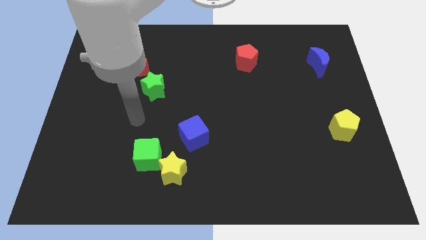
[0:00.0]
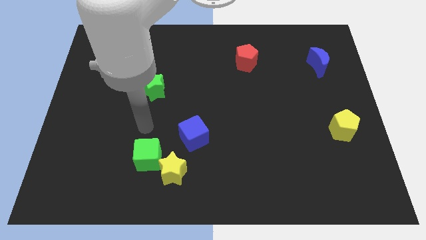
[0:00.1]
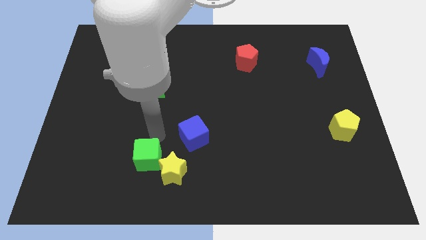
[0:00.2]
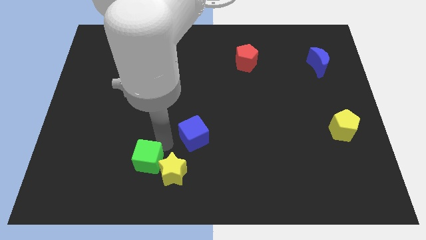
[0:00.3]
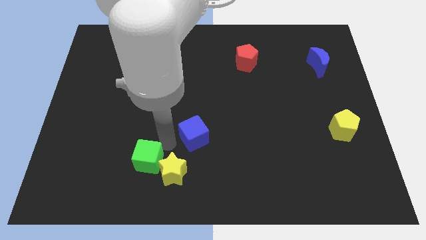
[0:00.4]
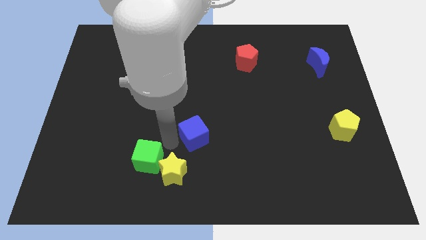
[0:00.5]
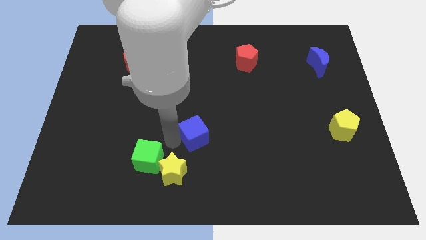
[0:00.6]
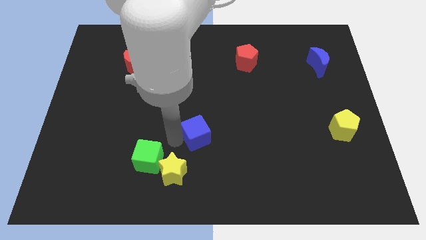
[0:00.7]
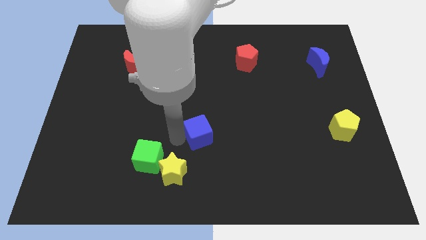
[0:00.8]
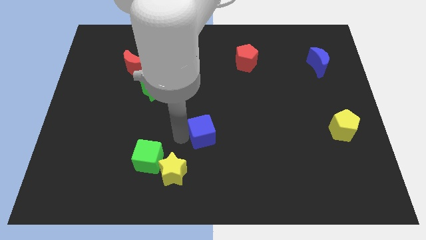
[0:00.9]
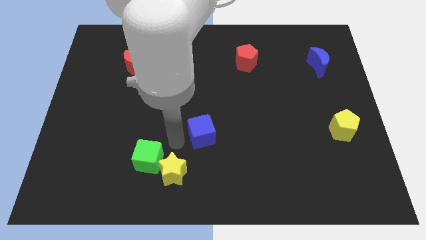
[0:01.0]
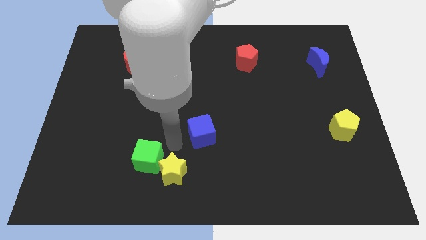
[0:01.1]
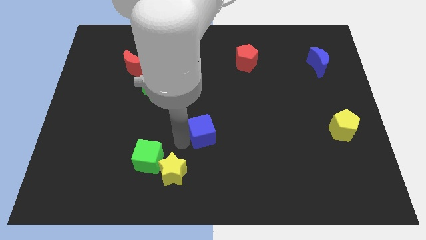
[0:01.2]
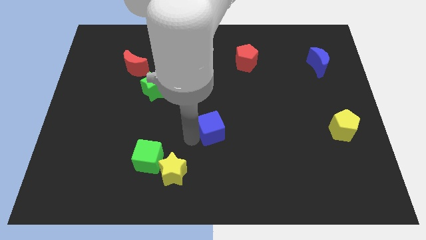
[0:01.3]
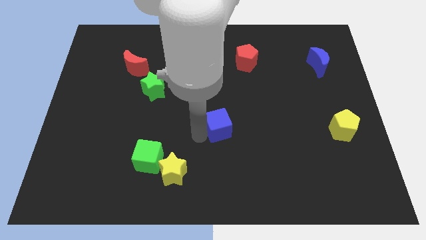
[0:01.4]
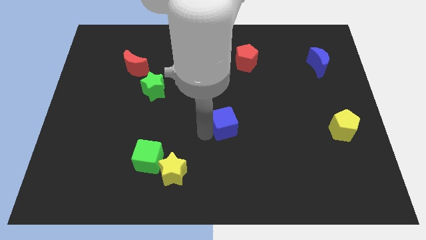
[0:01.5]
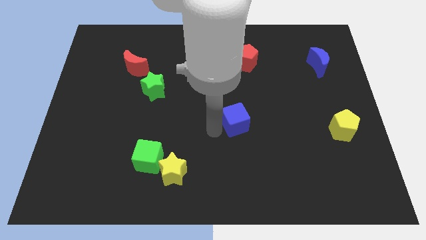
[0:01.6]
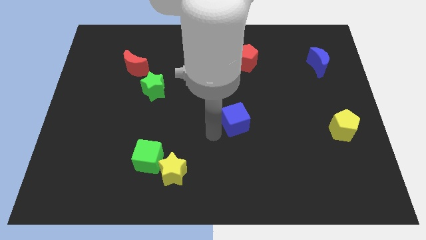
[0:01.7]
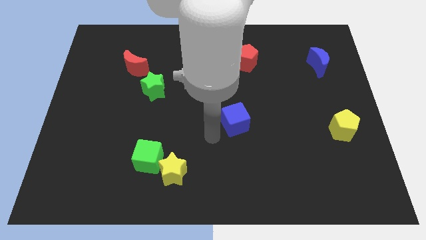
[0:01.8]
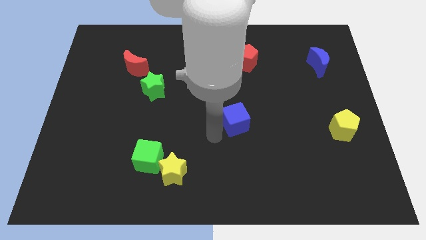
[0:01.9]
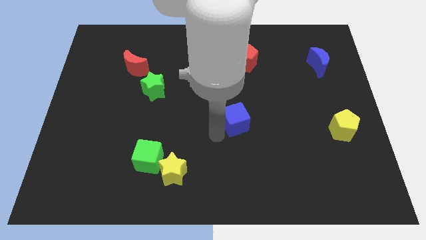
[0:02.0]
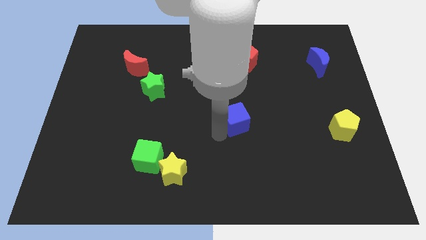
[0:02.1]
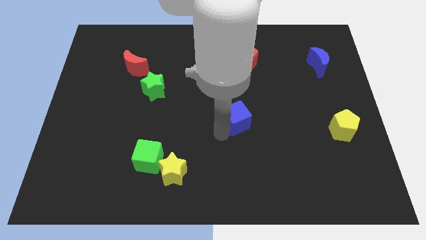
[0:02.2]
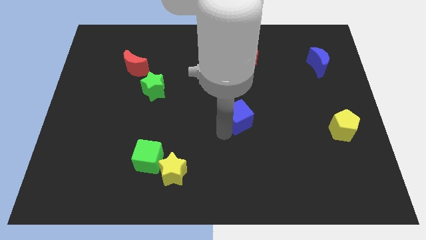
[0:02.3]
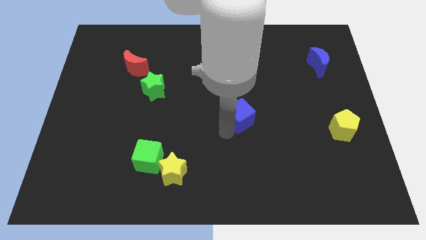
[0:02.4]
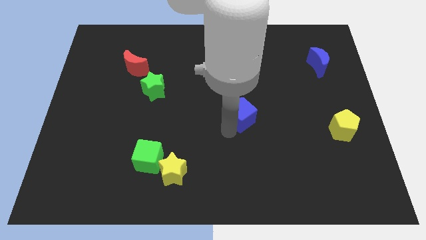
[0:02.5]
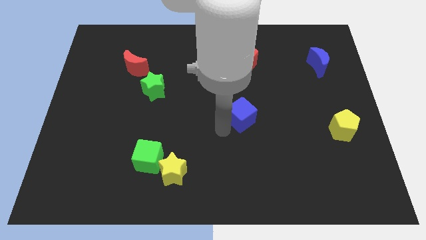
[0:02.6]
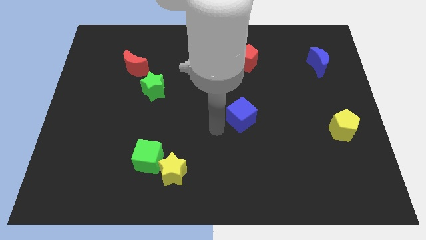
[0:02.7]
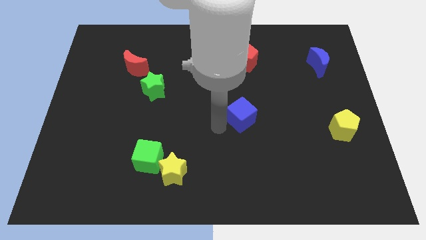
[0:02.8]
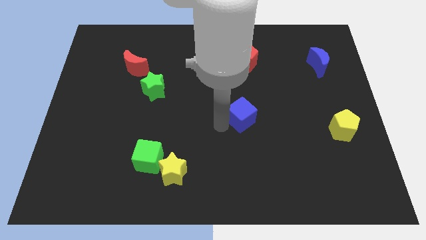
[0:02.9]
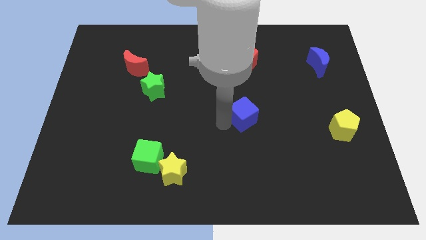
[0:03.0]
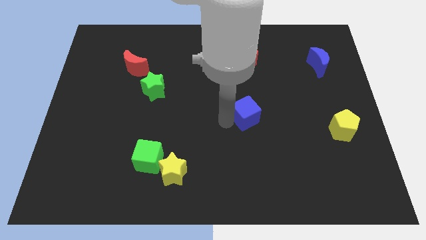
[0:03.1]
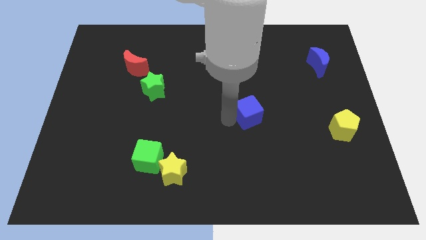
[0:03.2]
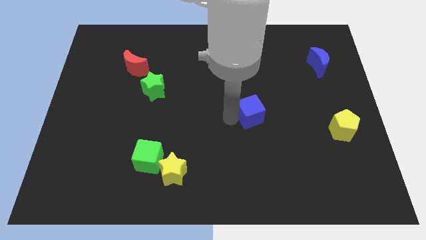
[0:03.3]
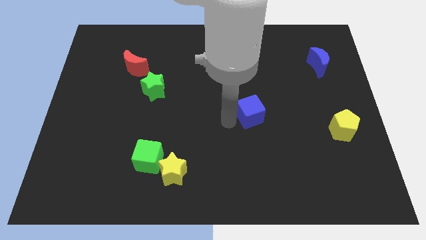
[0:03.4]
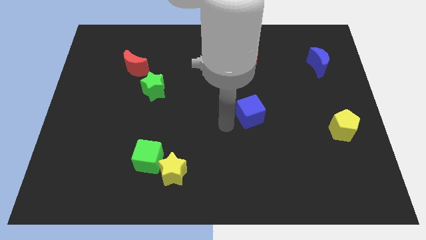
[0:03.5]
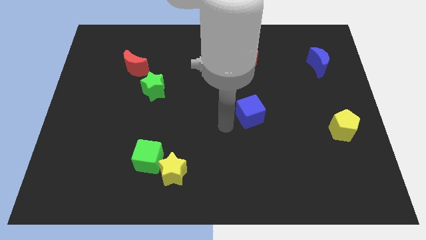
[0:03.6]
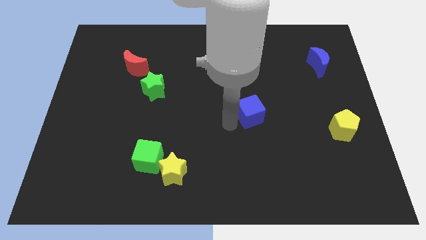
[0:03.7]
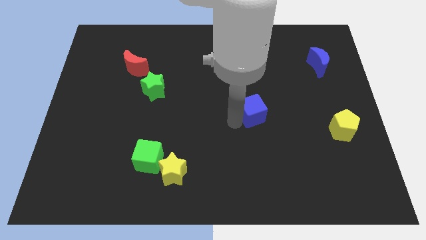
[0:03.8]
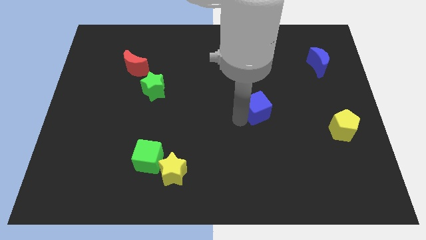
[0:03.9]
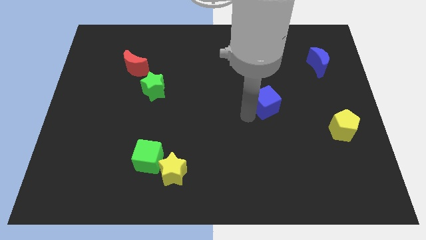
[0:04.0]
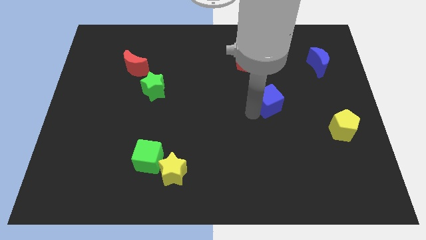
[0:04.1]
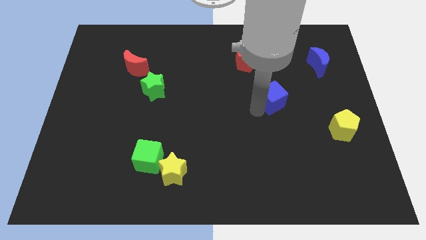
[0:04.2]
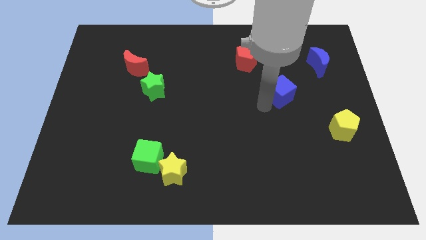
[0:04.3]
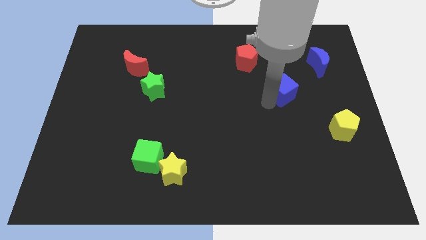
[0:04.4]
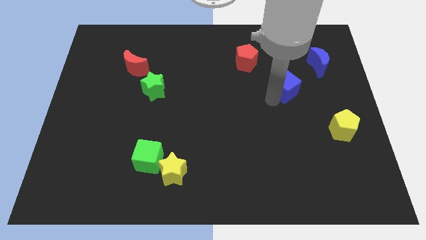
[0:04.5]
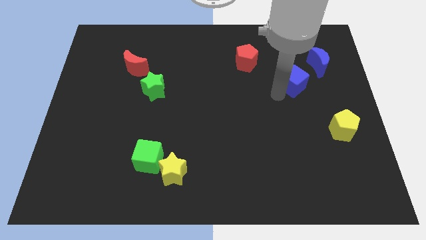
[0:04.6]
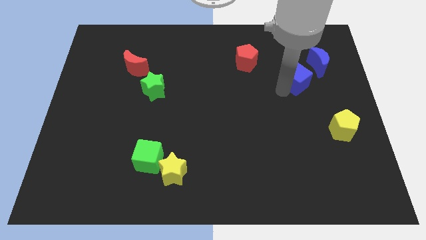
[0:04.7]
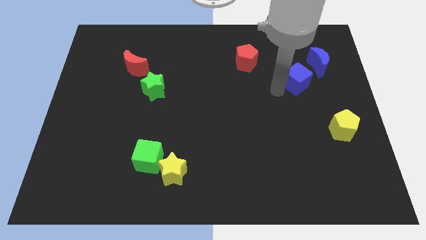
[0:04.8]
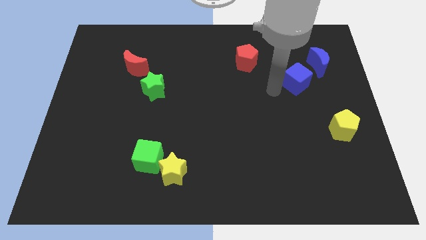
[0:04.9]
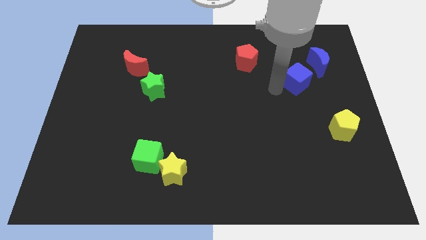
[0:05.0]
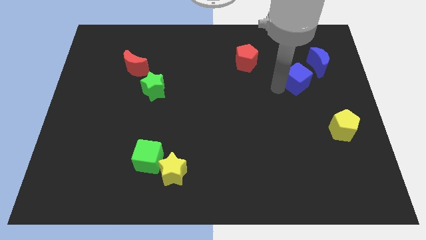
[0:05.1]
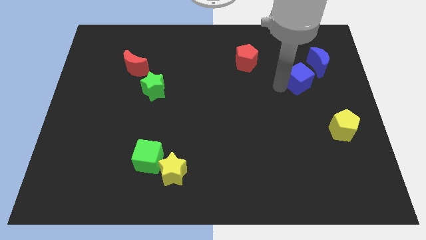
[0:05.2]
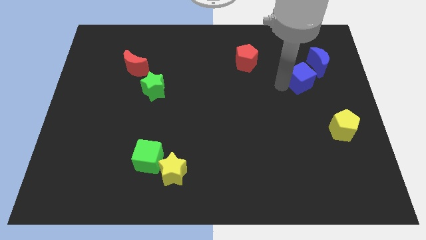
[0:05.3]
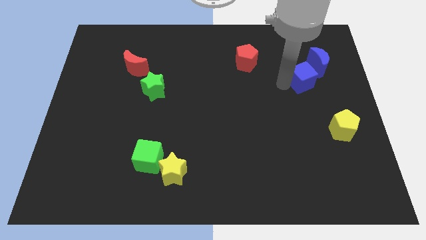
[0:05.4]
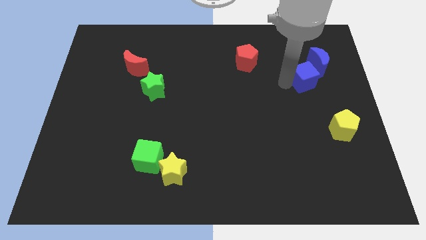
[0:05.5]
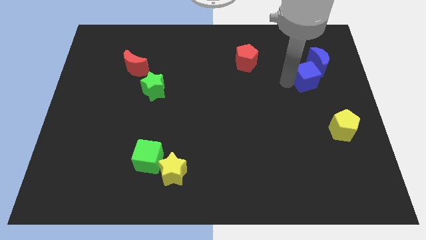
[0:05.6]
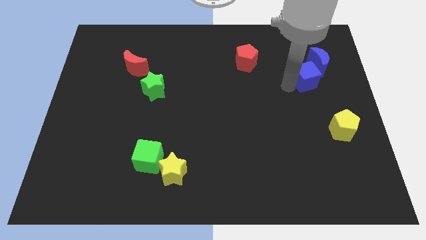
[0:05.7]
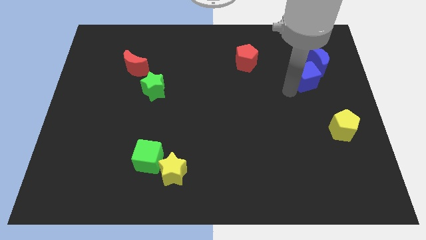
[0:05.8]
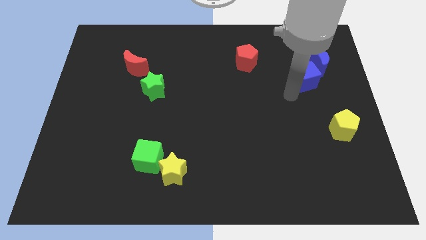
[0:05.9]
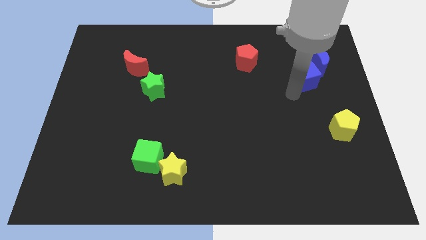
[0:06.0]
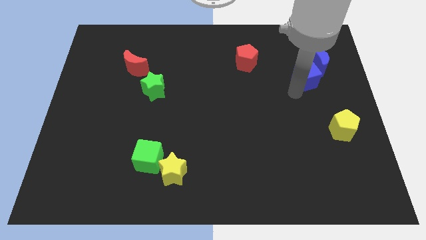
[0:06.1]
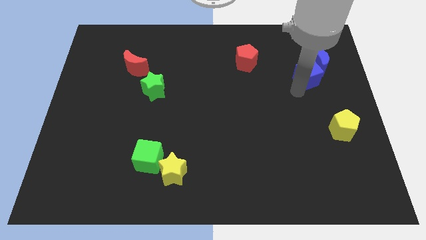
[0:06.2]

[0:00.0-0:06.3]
move the blue cube next to the blue moon

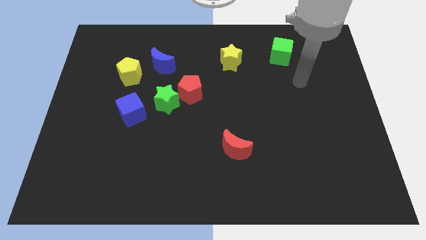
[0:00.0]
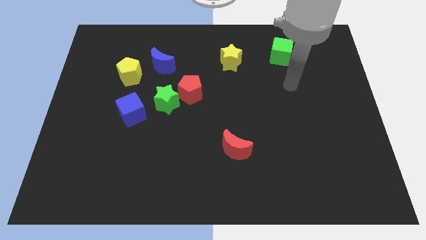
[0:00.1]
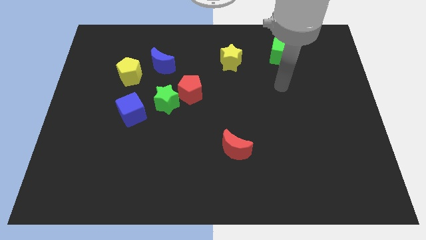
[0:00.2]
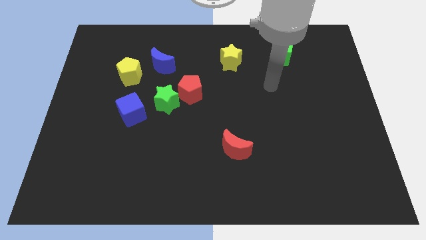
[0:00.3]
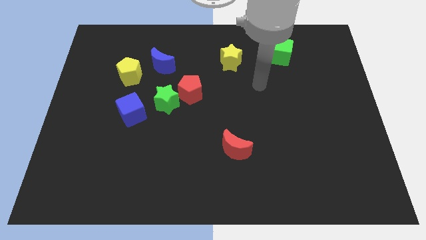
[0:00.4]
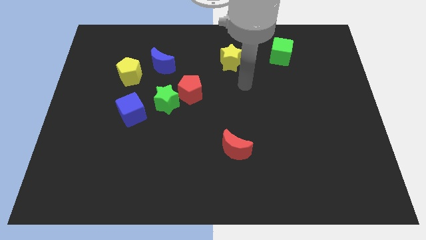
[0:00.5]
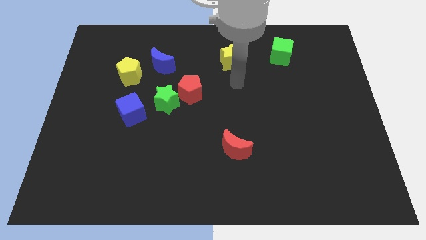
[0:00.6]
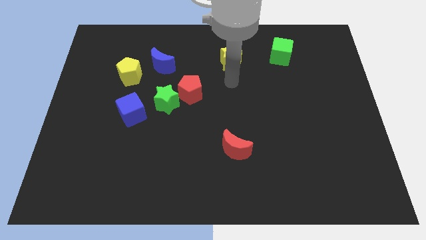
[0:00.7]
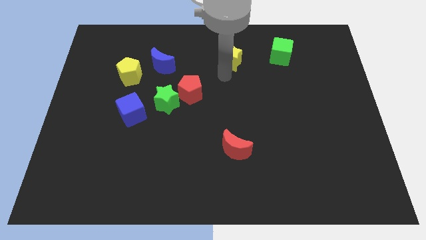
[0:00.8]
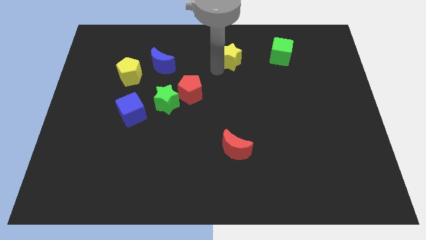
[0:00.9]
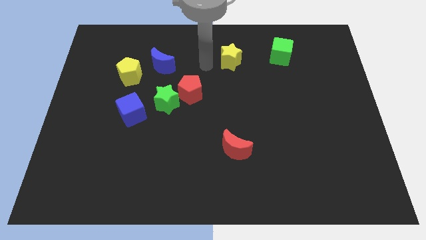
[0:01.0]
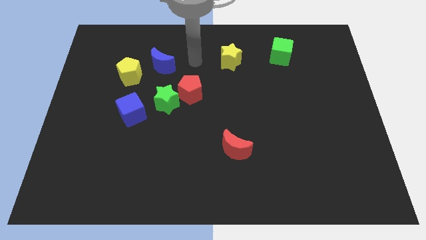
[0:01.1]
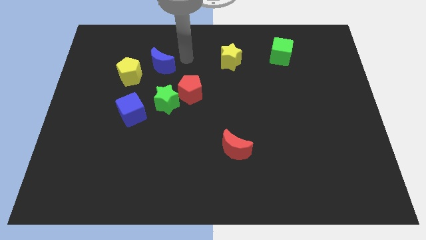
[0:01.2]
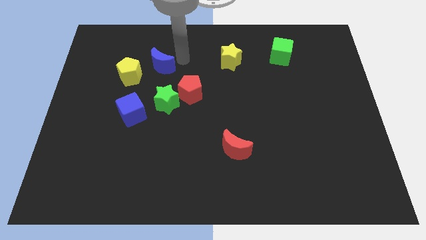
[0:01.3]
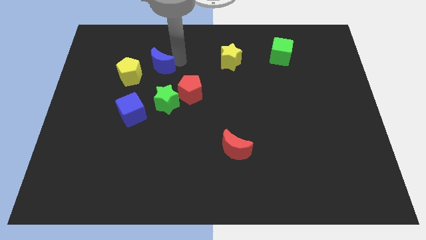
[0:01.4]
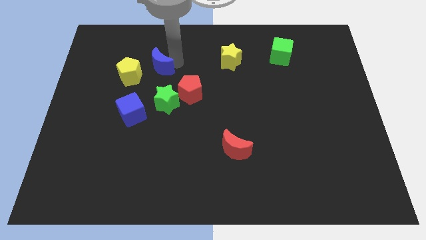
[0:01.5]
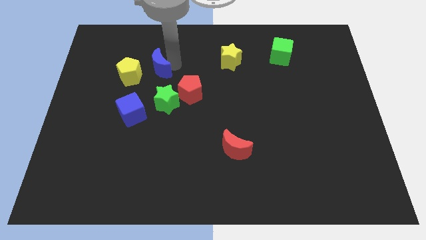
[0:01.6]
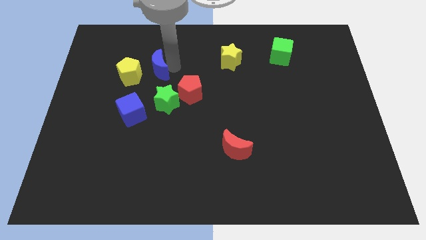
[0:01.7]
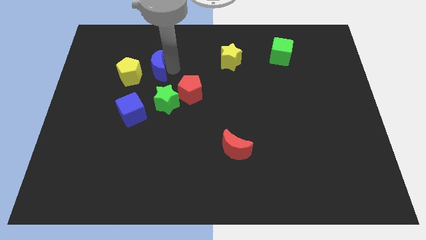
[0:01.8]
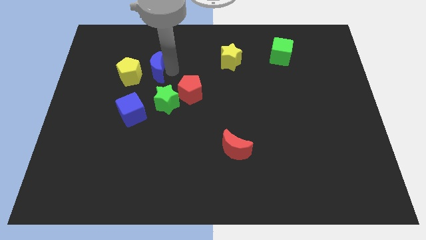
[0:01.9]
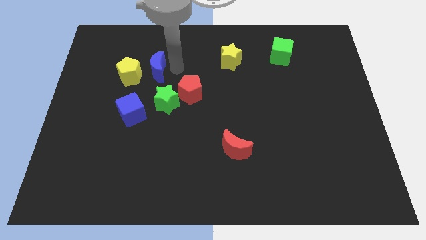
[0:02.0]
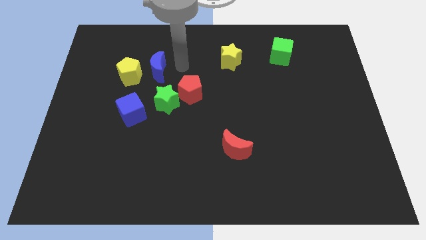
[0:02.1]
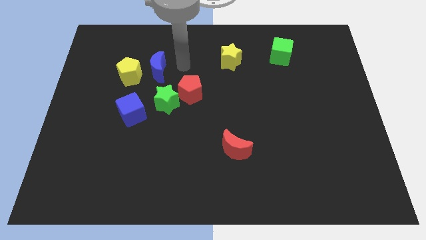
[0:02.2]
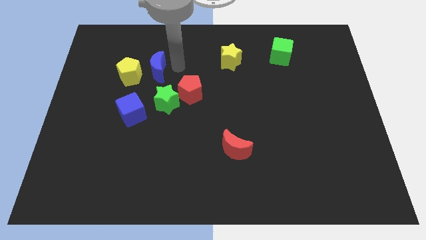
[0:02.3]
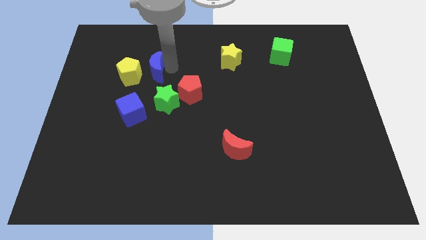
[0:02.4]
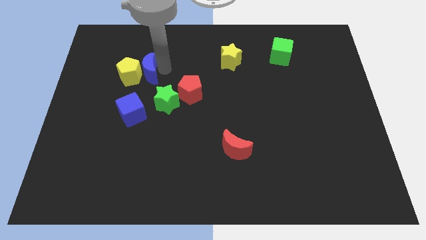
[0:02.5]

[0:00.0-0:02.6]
slide the blue moon towards the yellow pentagon
